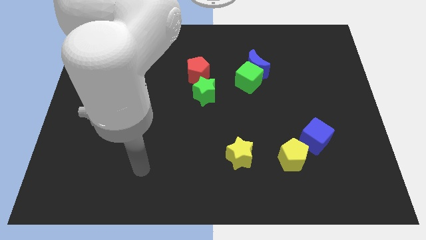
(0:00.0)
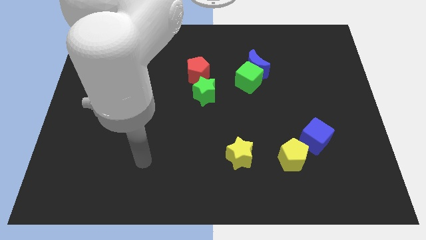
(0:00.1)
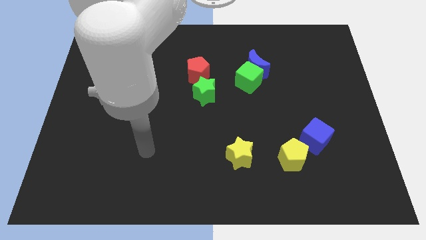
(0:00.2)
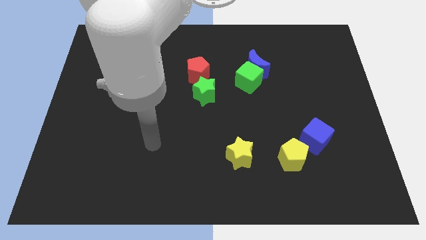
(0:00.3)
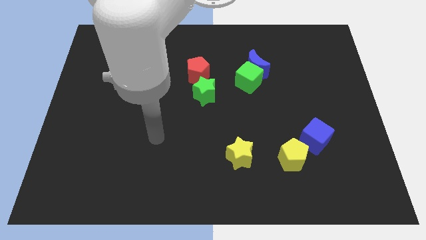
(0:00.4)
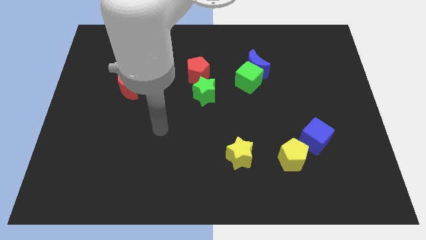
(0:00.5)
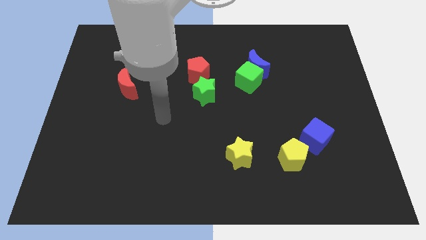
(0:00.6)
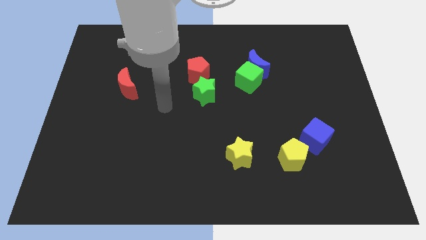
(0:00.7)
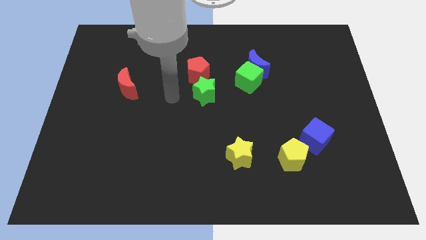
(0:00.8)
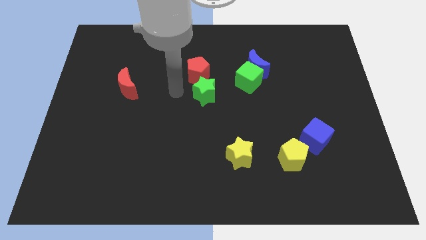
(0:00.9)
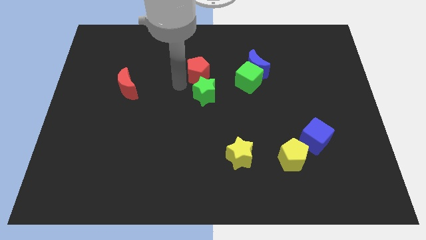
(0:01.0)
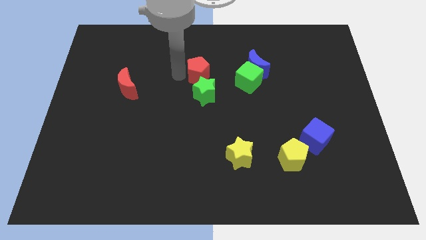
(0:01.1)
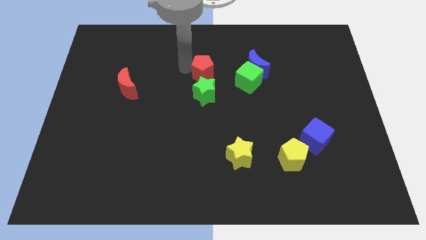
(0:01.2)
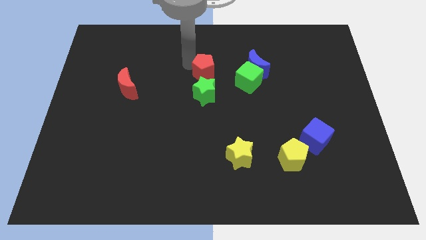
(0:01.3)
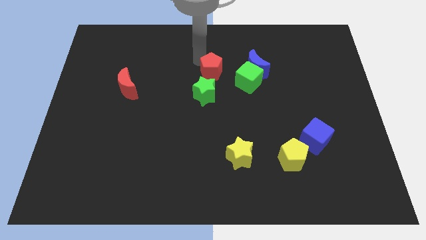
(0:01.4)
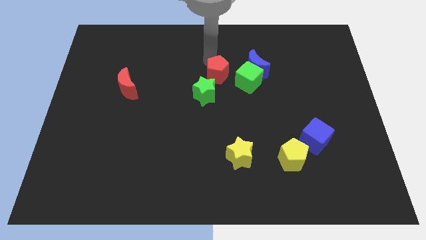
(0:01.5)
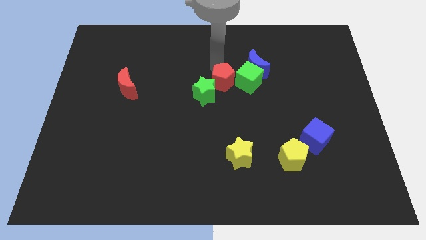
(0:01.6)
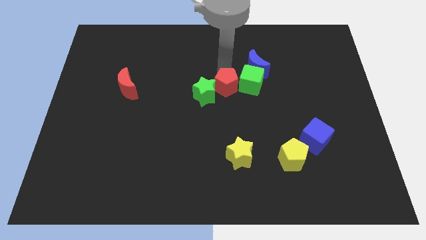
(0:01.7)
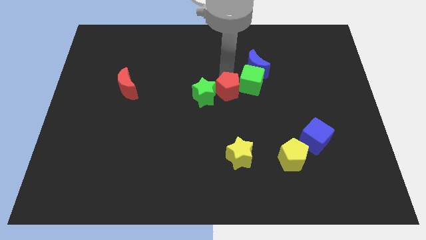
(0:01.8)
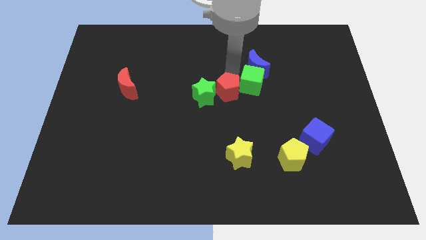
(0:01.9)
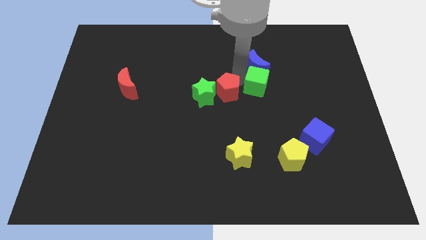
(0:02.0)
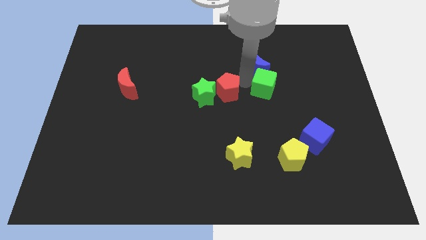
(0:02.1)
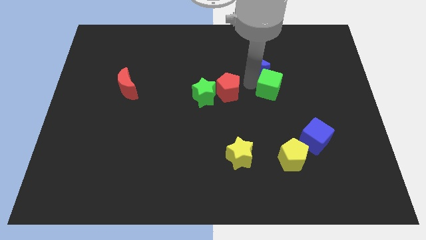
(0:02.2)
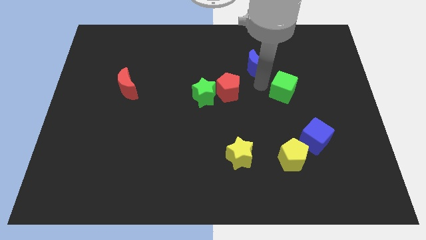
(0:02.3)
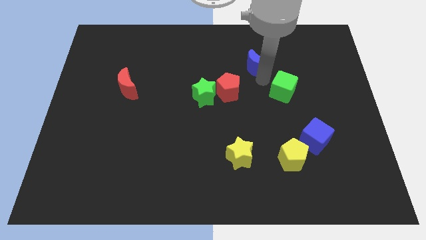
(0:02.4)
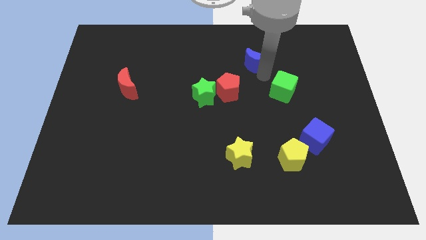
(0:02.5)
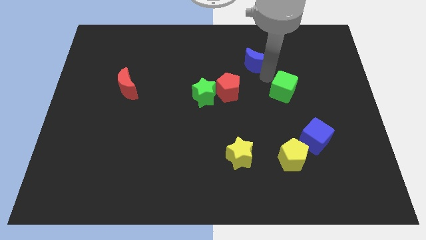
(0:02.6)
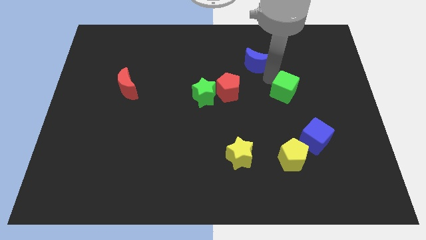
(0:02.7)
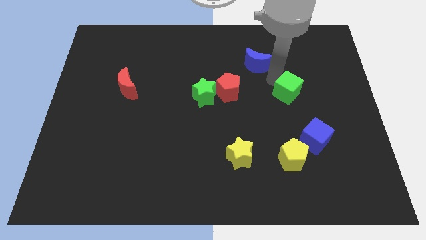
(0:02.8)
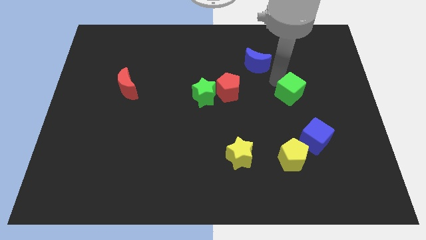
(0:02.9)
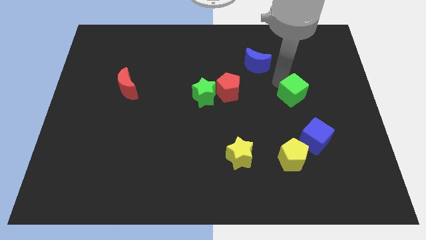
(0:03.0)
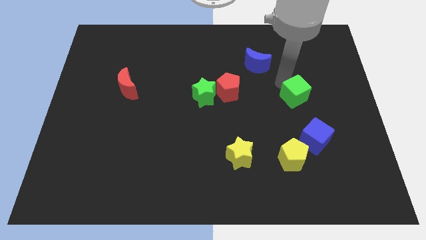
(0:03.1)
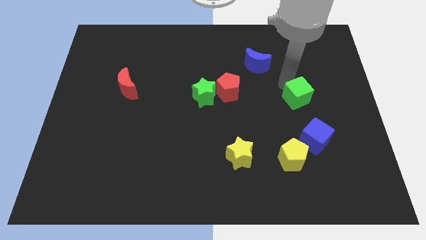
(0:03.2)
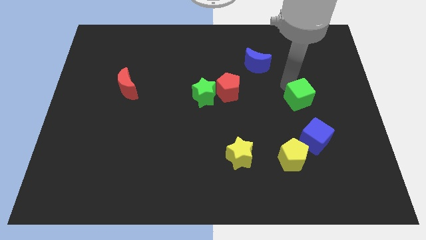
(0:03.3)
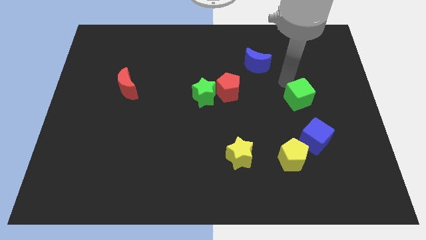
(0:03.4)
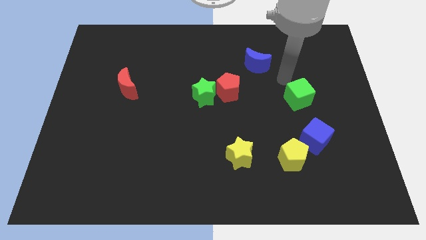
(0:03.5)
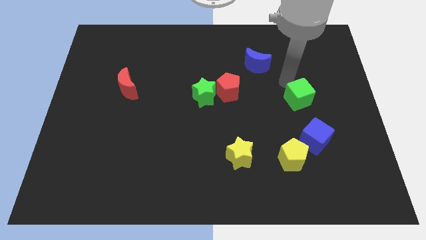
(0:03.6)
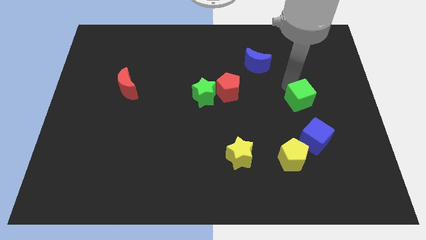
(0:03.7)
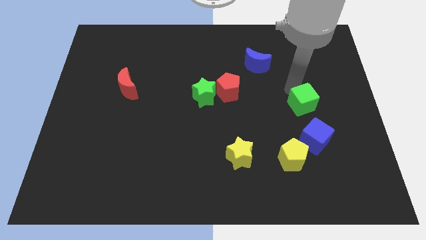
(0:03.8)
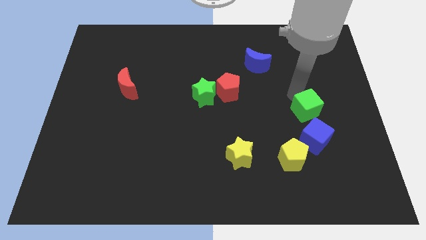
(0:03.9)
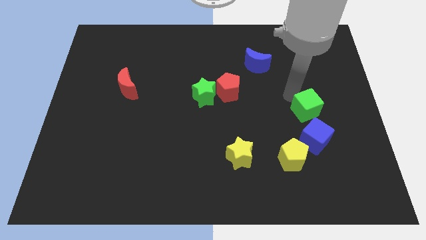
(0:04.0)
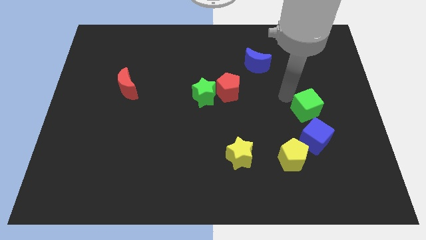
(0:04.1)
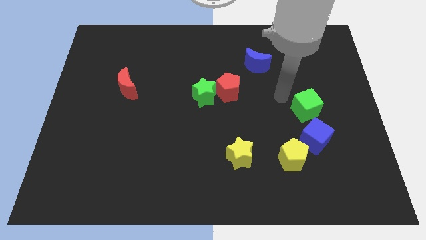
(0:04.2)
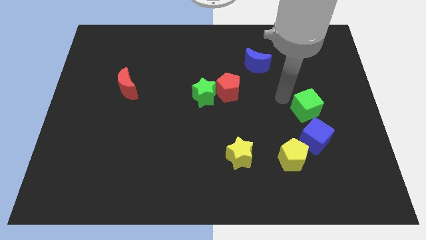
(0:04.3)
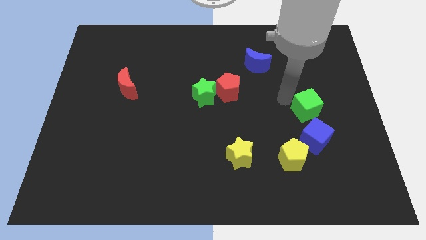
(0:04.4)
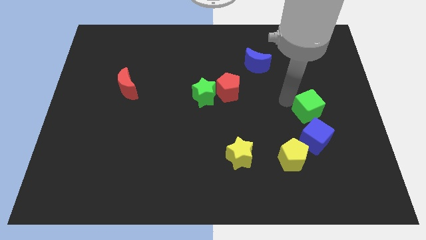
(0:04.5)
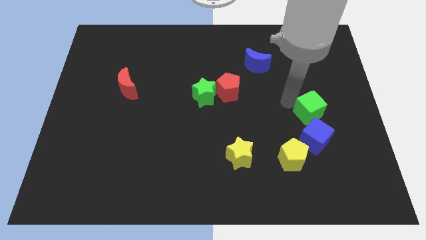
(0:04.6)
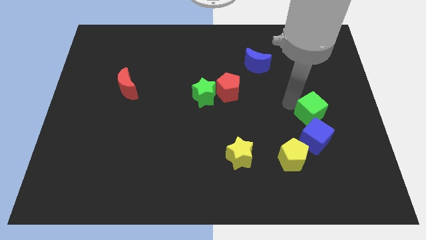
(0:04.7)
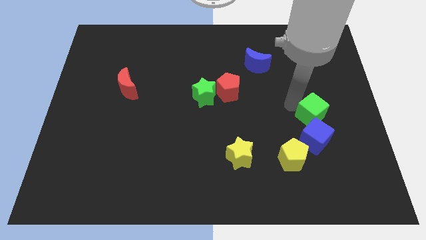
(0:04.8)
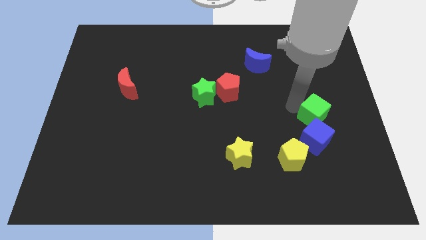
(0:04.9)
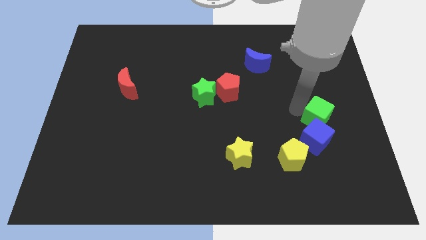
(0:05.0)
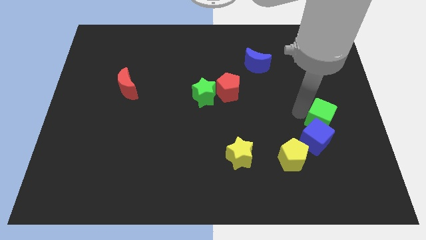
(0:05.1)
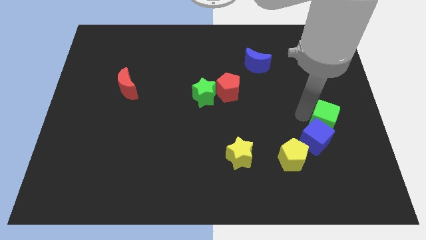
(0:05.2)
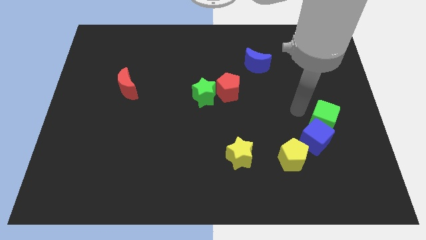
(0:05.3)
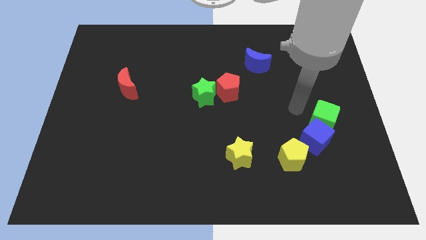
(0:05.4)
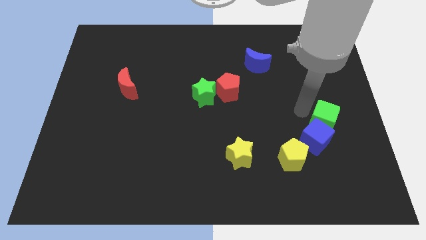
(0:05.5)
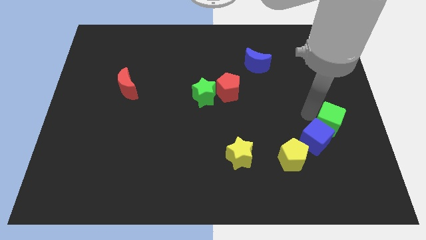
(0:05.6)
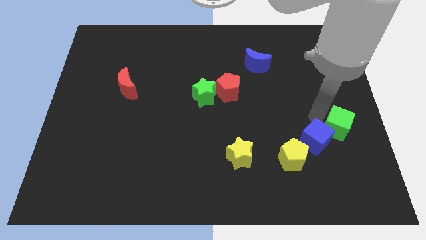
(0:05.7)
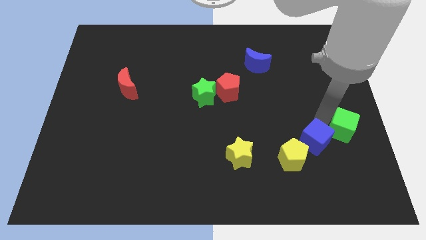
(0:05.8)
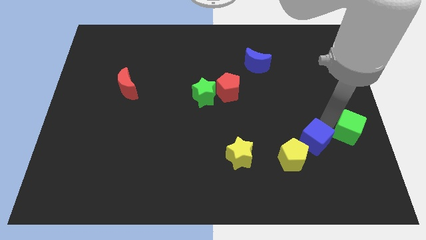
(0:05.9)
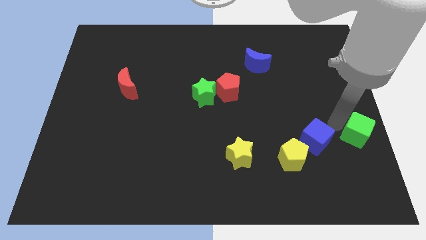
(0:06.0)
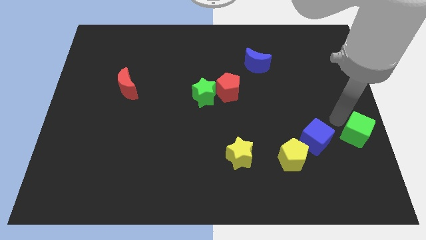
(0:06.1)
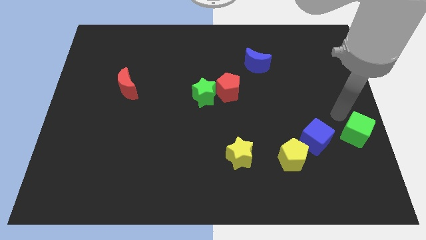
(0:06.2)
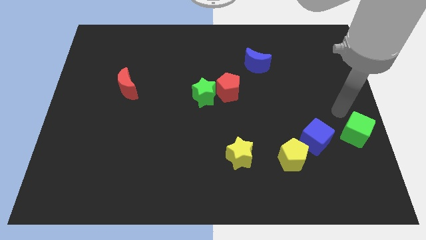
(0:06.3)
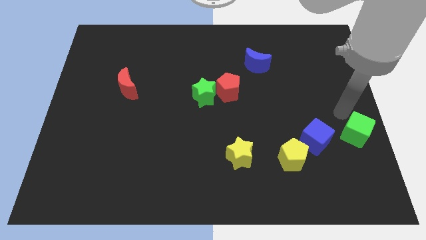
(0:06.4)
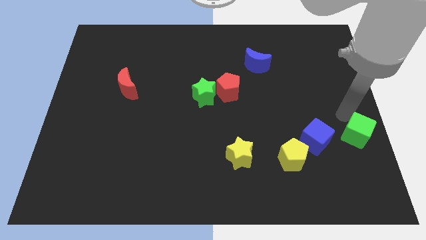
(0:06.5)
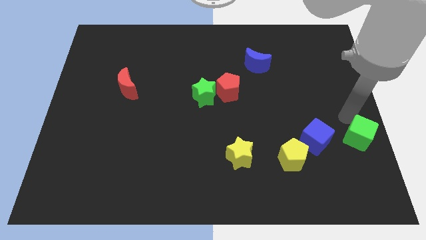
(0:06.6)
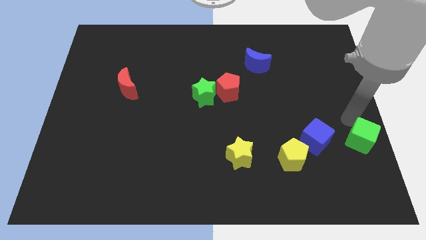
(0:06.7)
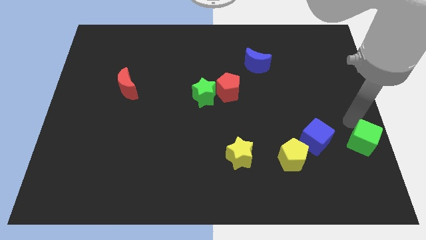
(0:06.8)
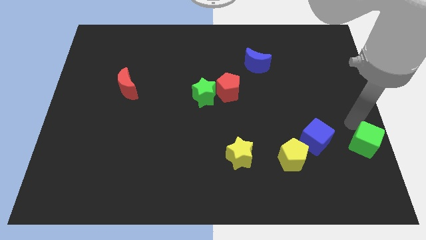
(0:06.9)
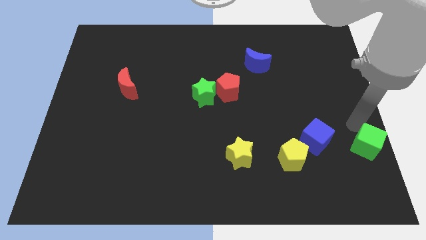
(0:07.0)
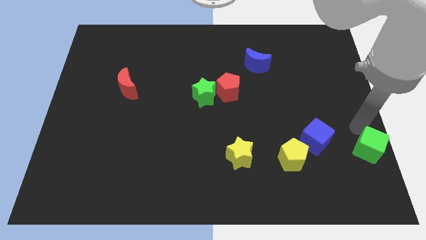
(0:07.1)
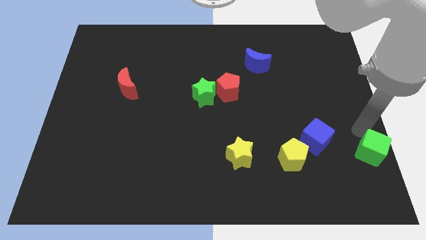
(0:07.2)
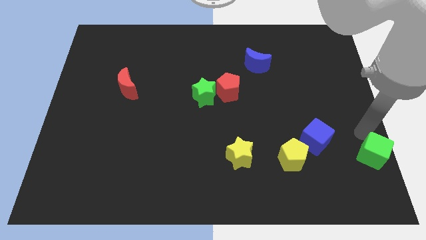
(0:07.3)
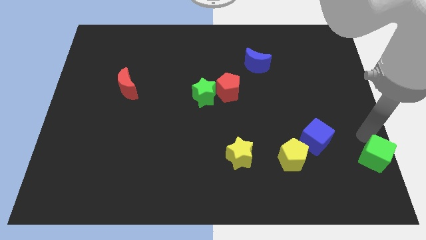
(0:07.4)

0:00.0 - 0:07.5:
push the green cube to the lower right corner
